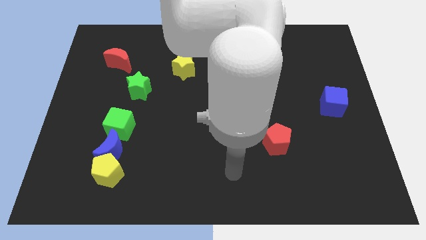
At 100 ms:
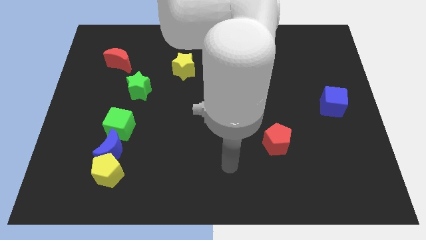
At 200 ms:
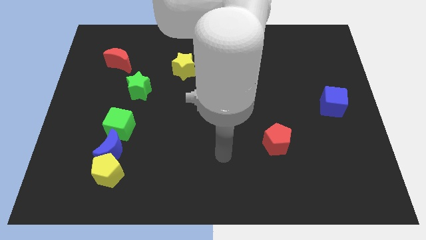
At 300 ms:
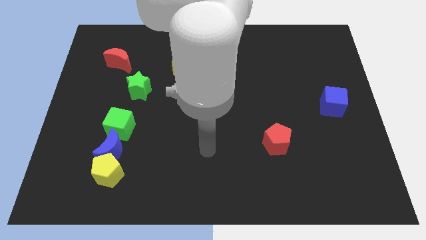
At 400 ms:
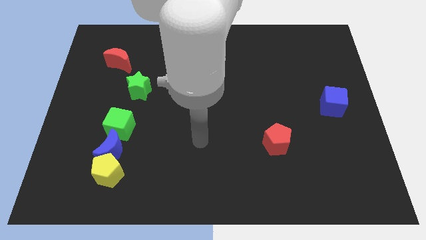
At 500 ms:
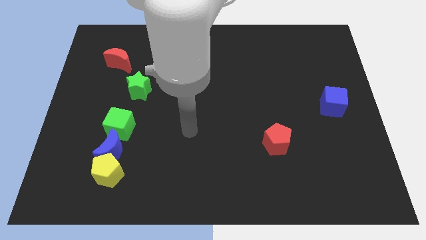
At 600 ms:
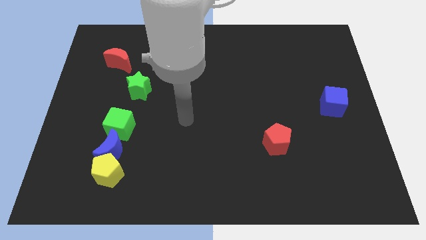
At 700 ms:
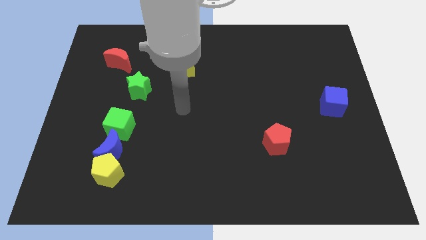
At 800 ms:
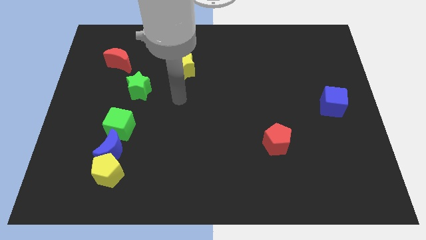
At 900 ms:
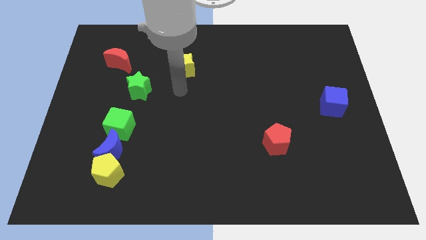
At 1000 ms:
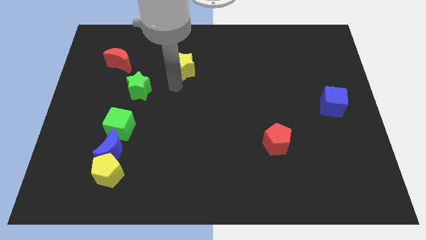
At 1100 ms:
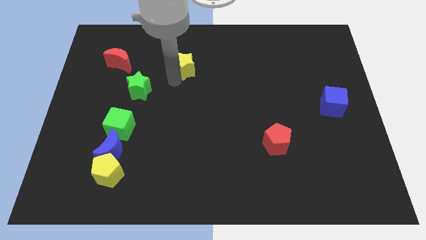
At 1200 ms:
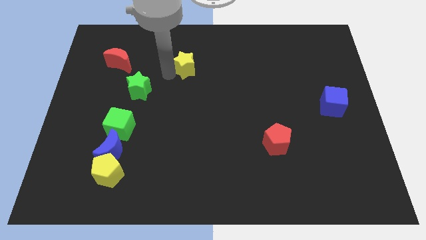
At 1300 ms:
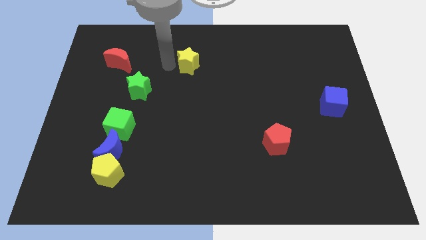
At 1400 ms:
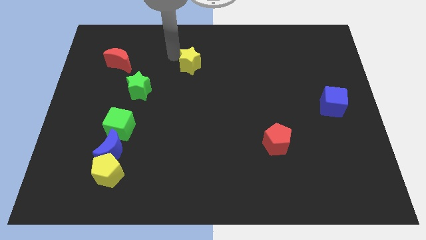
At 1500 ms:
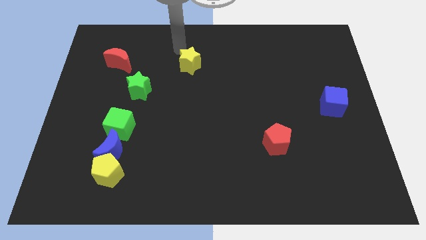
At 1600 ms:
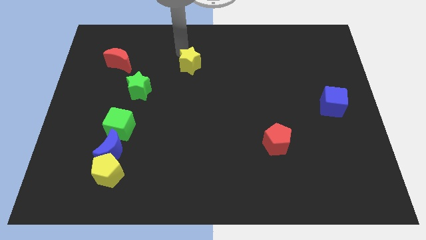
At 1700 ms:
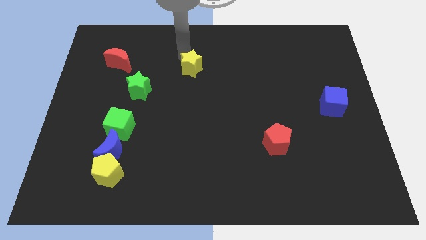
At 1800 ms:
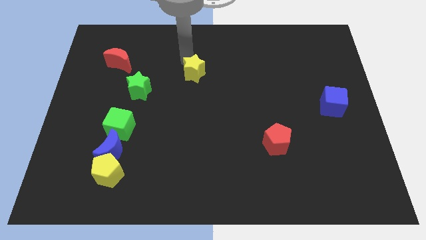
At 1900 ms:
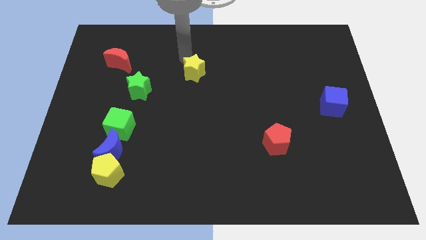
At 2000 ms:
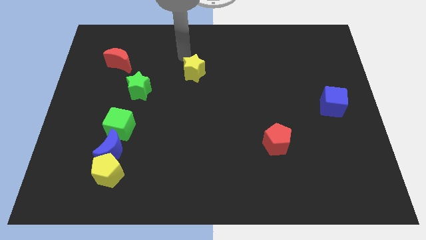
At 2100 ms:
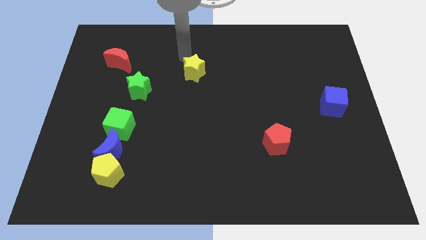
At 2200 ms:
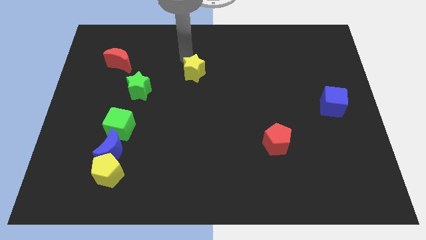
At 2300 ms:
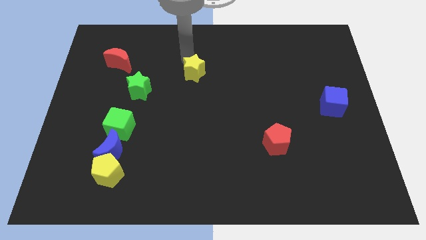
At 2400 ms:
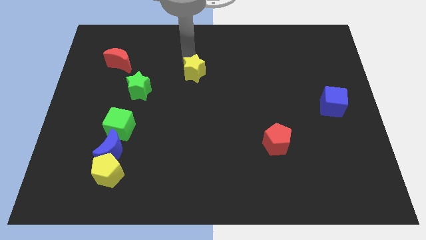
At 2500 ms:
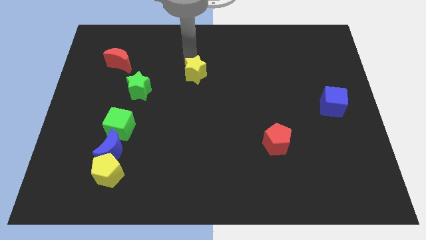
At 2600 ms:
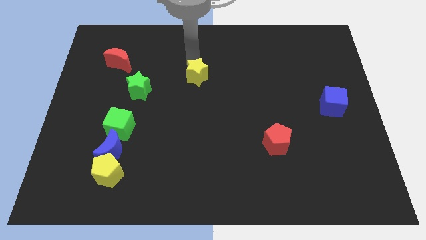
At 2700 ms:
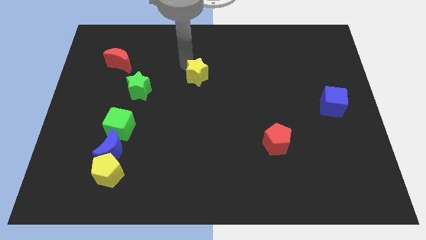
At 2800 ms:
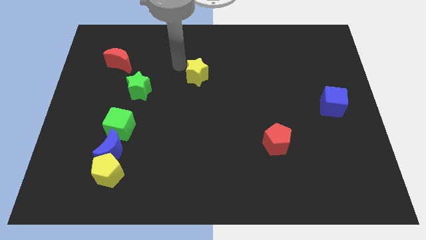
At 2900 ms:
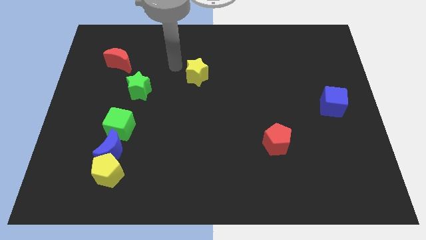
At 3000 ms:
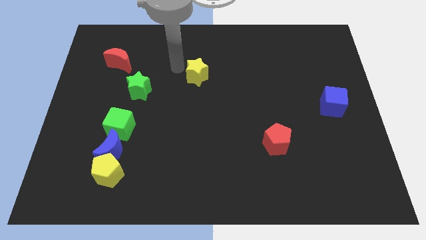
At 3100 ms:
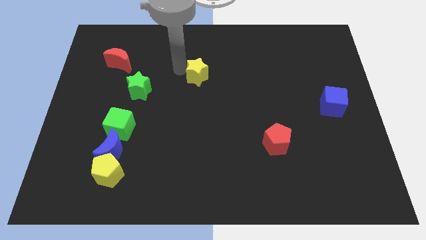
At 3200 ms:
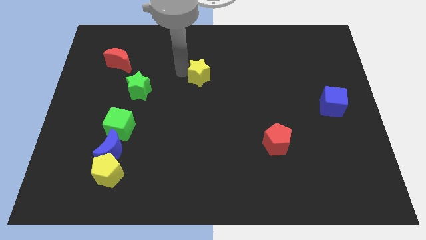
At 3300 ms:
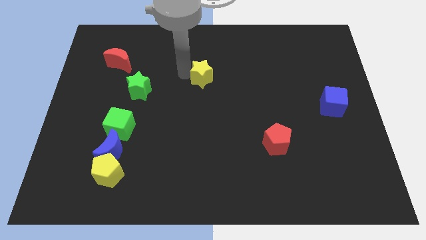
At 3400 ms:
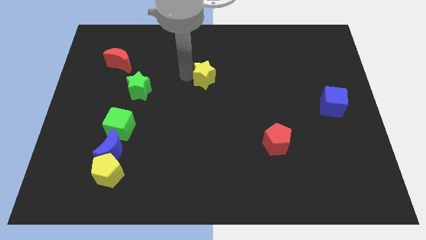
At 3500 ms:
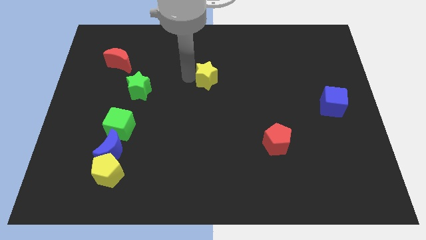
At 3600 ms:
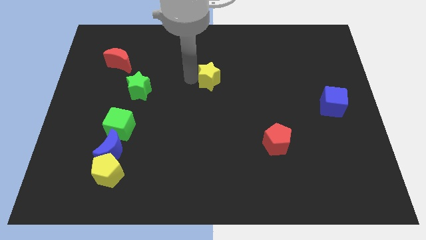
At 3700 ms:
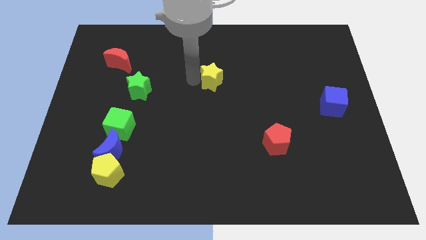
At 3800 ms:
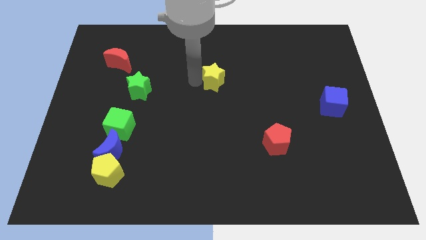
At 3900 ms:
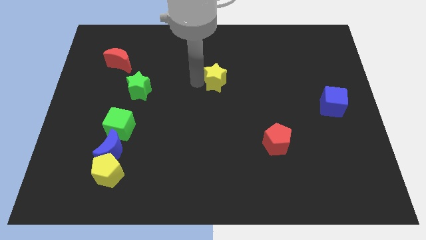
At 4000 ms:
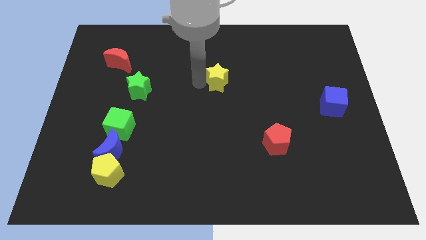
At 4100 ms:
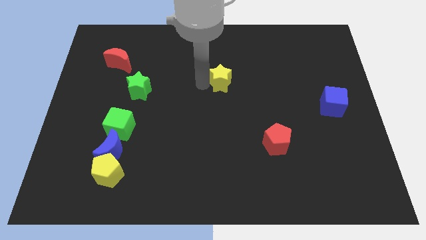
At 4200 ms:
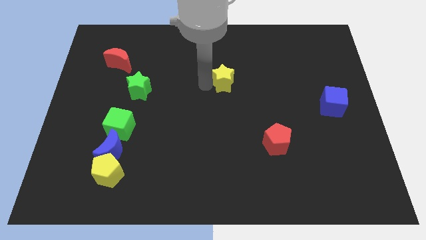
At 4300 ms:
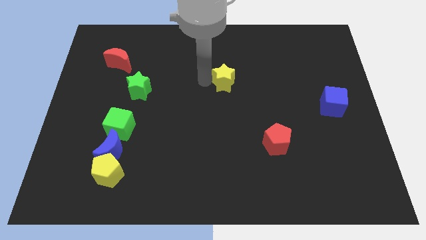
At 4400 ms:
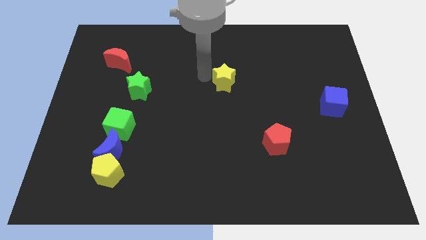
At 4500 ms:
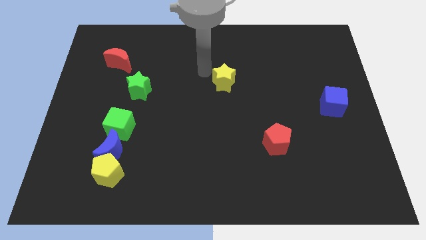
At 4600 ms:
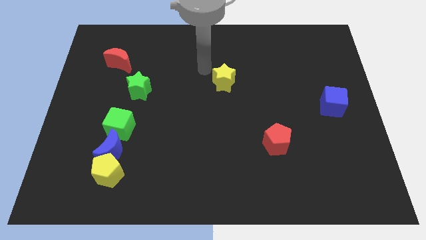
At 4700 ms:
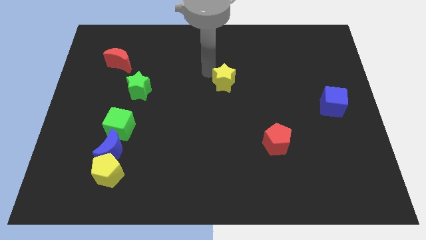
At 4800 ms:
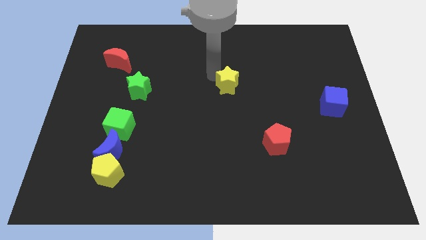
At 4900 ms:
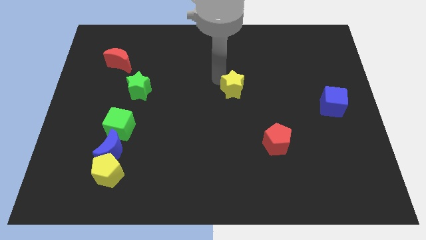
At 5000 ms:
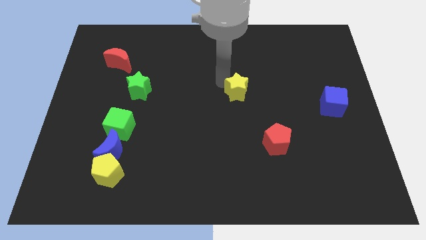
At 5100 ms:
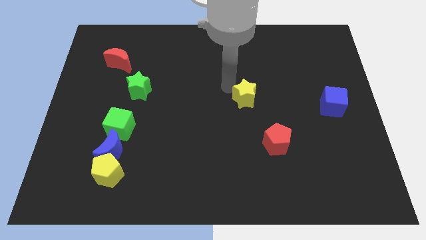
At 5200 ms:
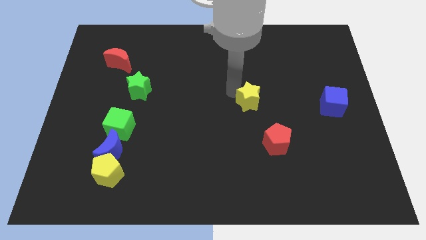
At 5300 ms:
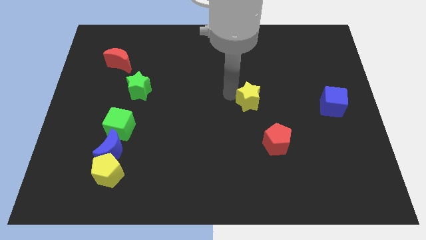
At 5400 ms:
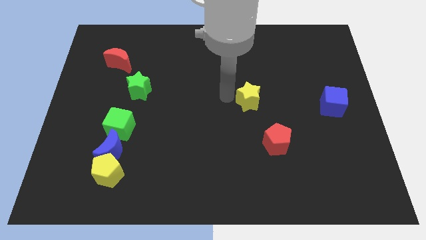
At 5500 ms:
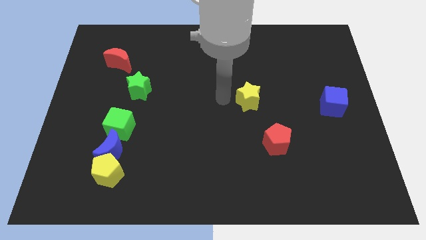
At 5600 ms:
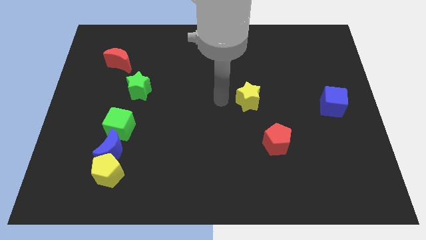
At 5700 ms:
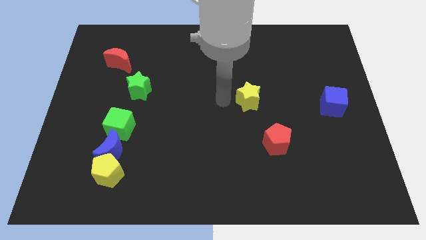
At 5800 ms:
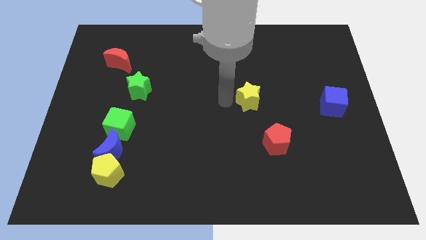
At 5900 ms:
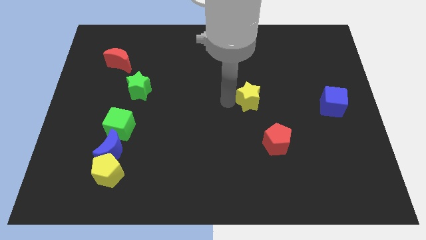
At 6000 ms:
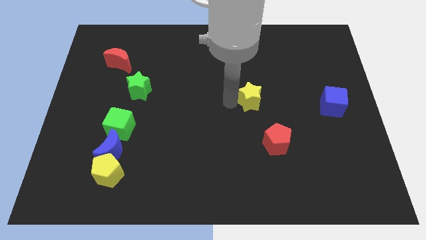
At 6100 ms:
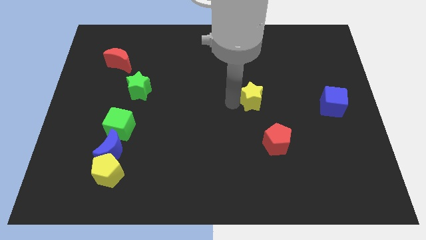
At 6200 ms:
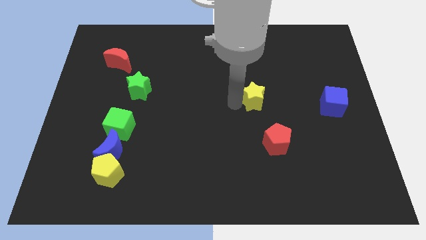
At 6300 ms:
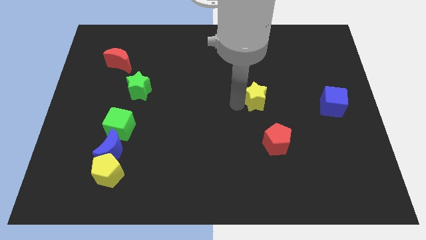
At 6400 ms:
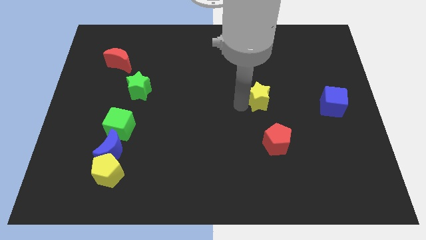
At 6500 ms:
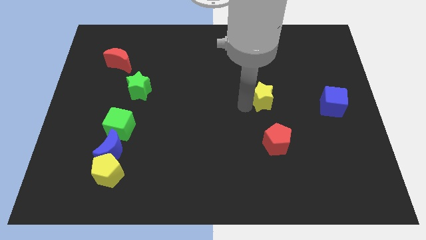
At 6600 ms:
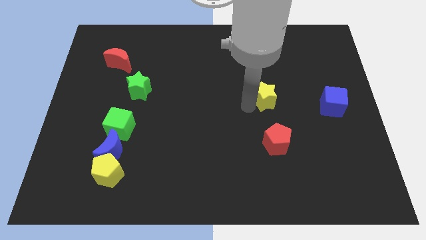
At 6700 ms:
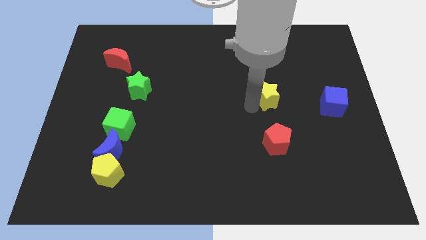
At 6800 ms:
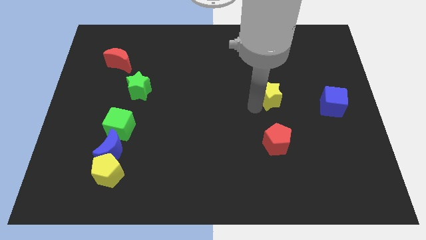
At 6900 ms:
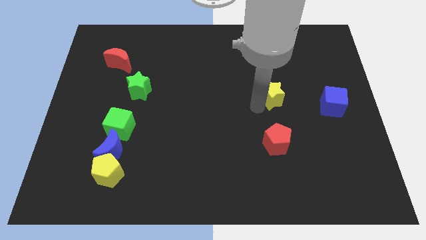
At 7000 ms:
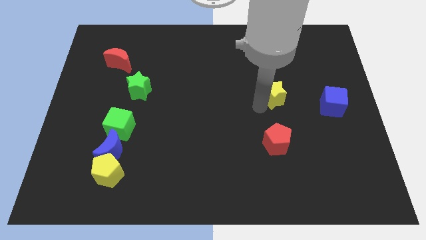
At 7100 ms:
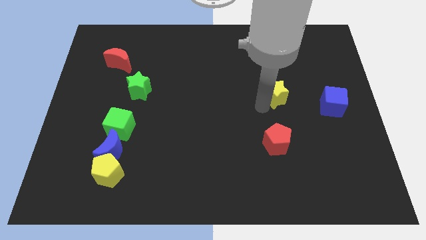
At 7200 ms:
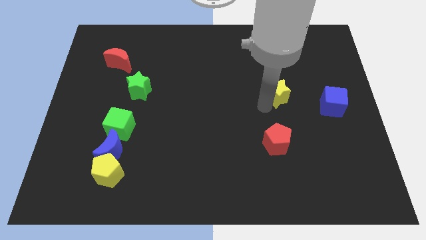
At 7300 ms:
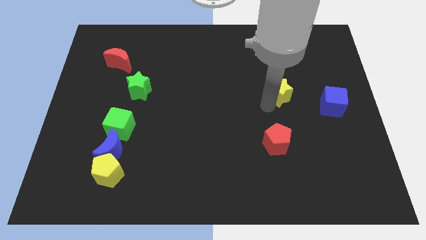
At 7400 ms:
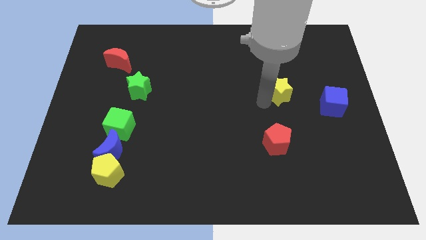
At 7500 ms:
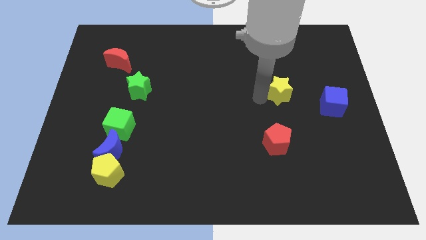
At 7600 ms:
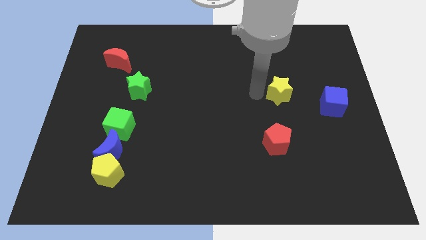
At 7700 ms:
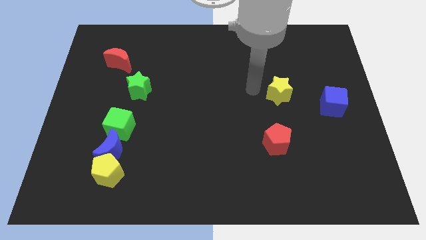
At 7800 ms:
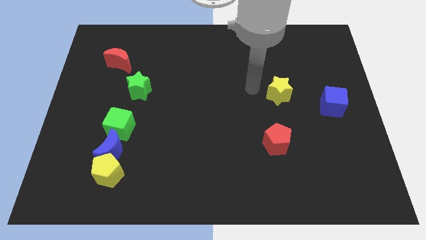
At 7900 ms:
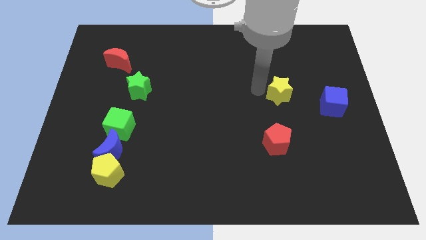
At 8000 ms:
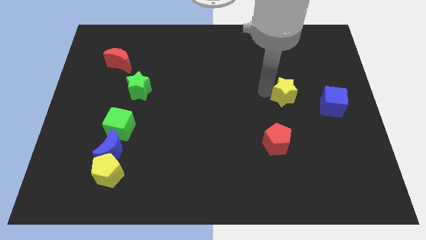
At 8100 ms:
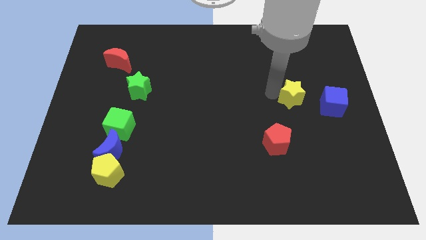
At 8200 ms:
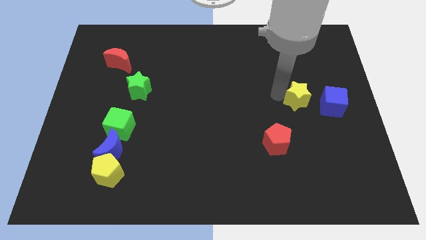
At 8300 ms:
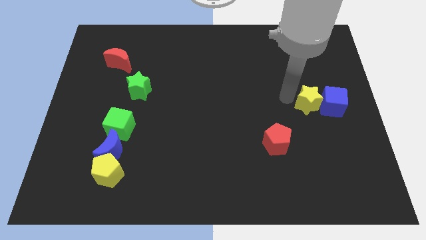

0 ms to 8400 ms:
slide the yellow star close to the blue cube
